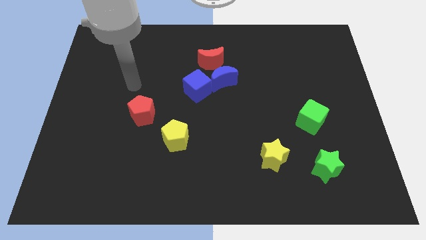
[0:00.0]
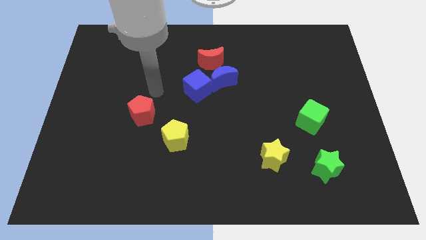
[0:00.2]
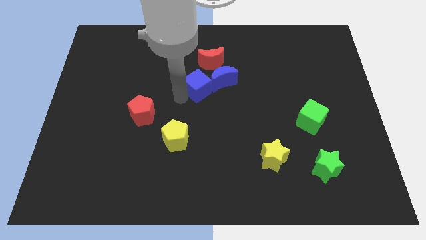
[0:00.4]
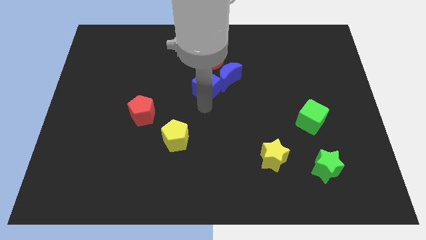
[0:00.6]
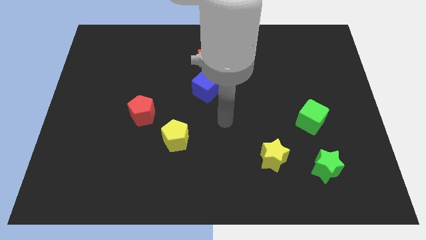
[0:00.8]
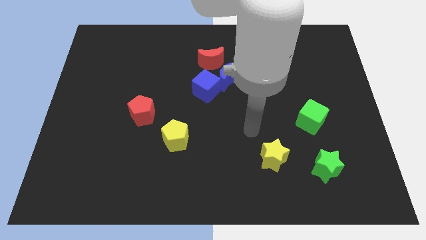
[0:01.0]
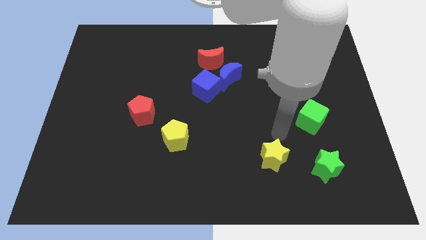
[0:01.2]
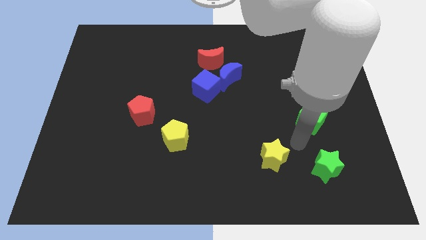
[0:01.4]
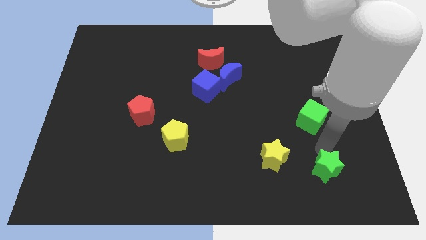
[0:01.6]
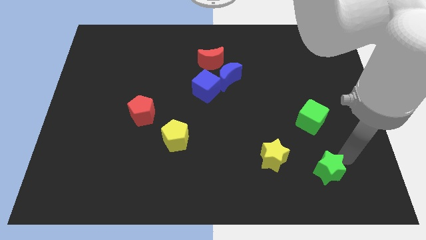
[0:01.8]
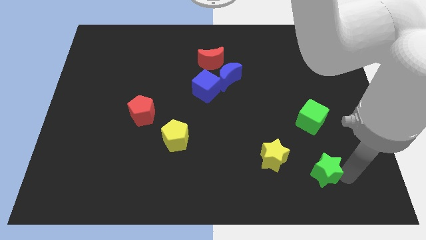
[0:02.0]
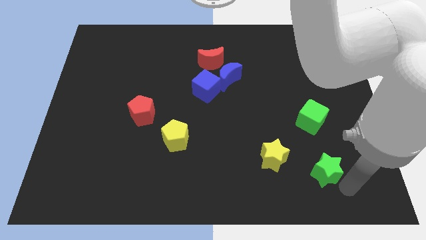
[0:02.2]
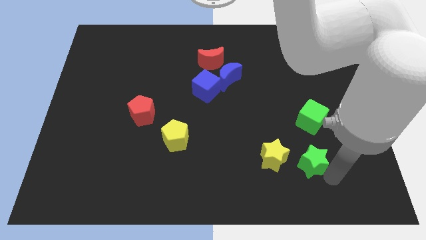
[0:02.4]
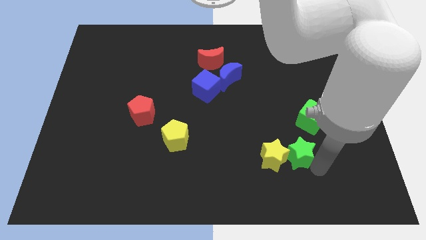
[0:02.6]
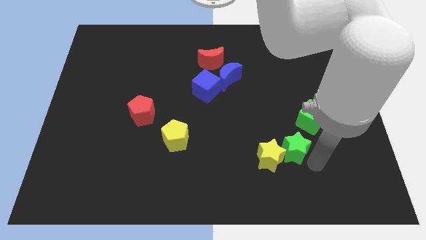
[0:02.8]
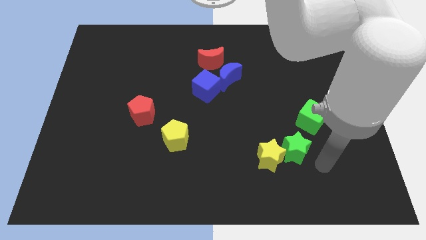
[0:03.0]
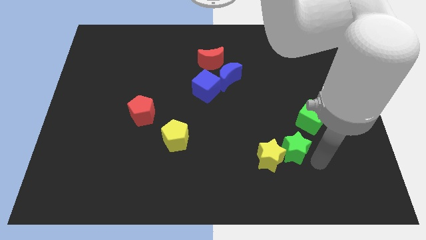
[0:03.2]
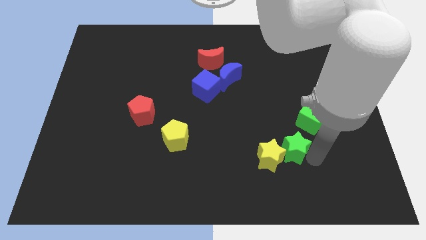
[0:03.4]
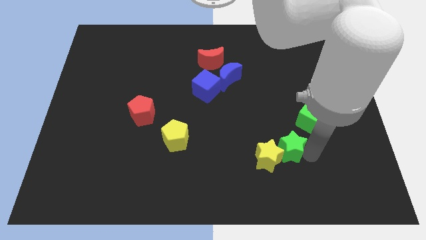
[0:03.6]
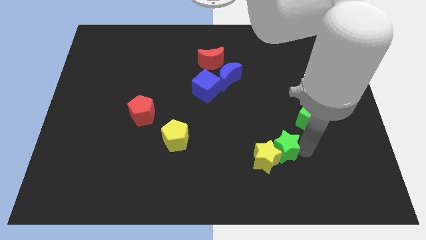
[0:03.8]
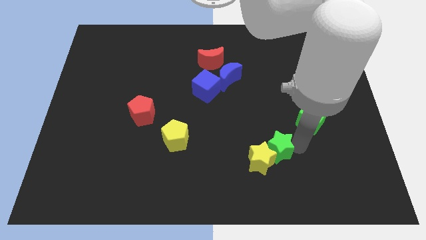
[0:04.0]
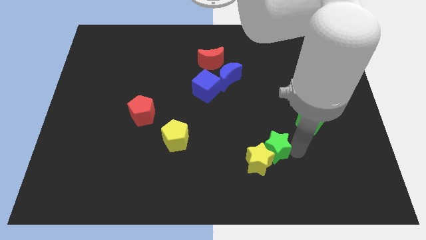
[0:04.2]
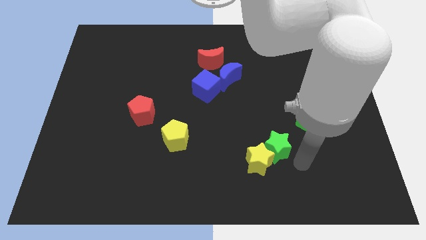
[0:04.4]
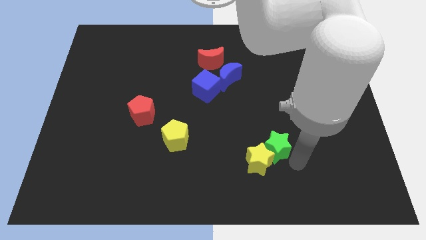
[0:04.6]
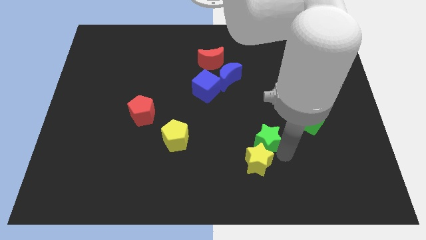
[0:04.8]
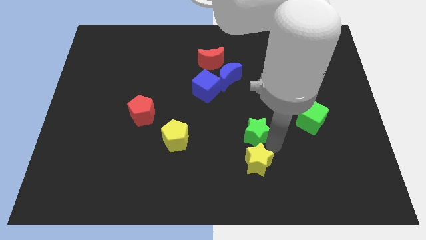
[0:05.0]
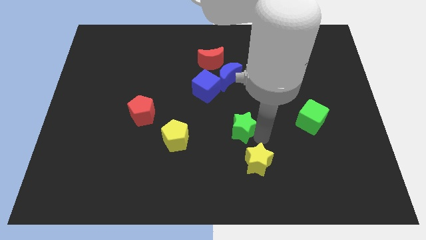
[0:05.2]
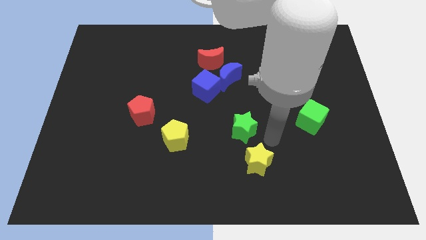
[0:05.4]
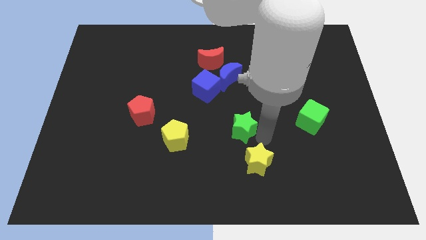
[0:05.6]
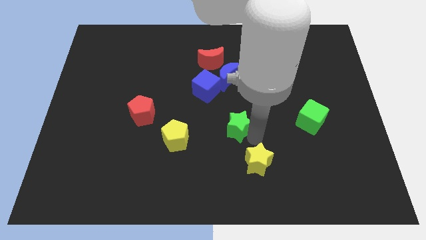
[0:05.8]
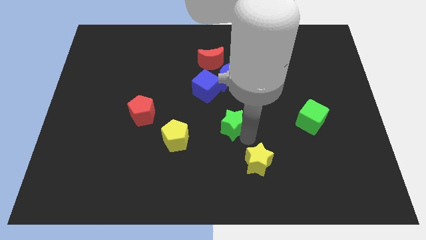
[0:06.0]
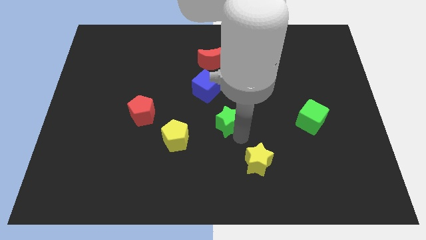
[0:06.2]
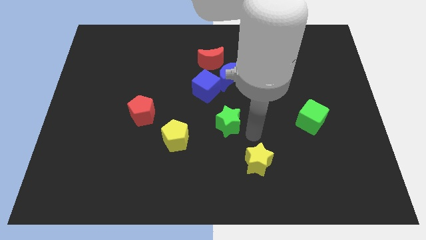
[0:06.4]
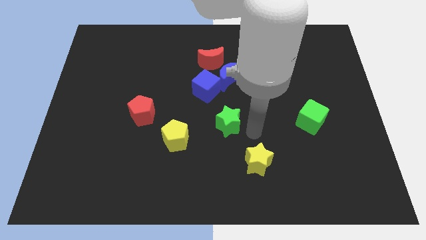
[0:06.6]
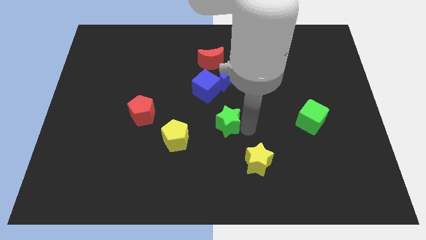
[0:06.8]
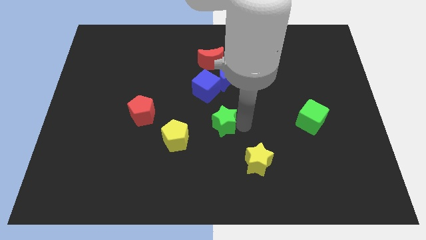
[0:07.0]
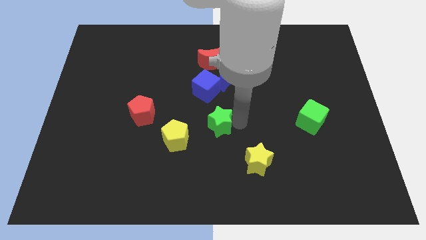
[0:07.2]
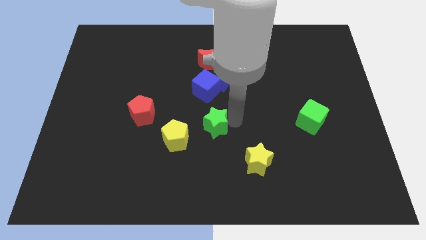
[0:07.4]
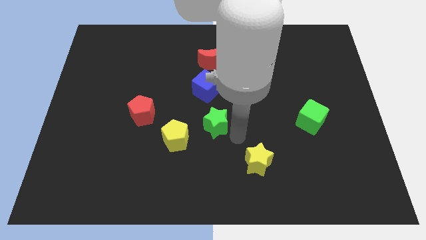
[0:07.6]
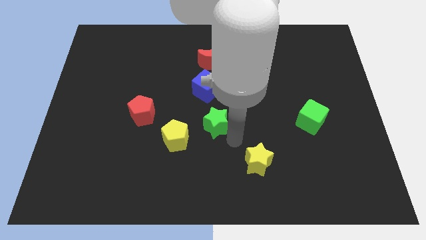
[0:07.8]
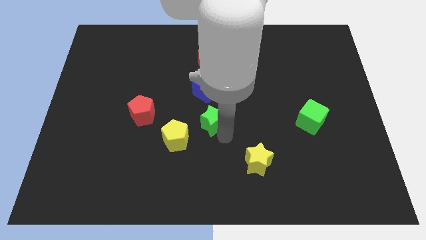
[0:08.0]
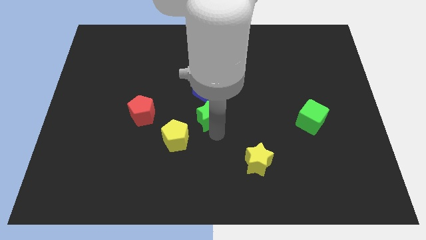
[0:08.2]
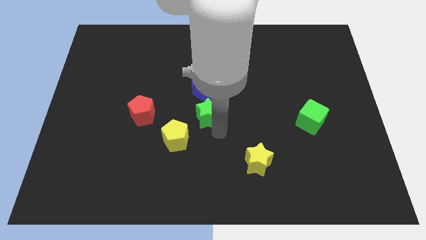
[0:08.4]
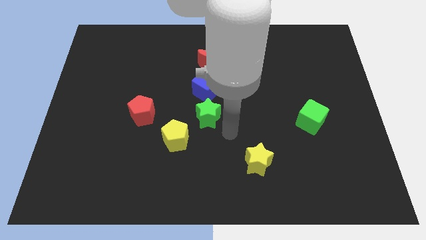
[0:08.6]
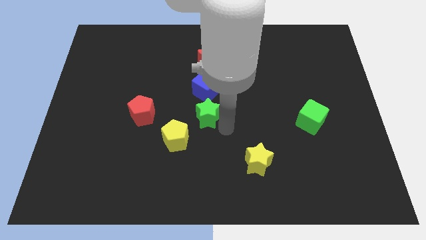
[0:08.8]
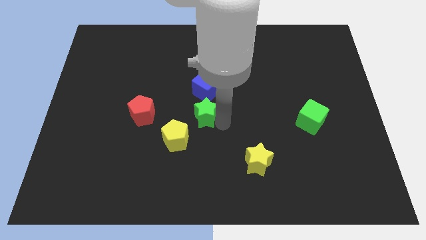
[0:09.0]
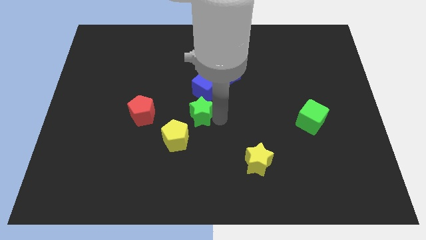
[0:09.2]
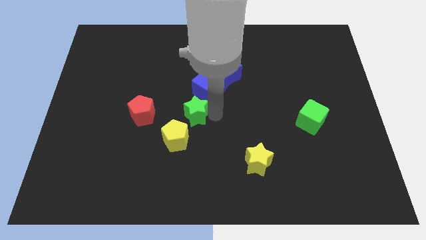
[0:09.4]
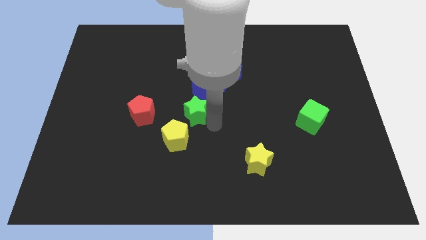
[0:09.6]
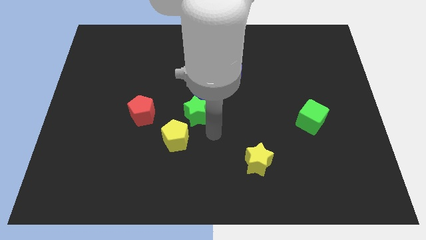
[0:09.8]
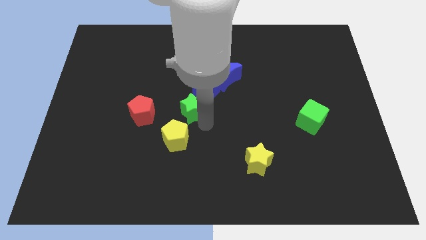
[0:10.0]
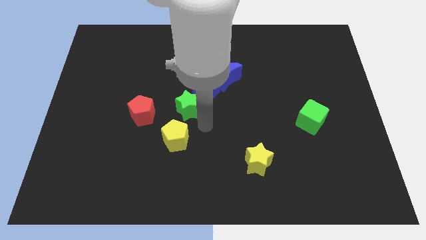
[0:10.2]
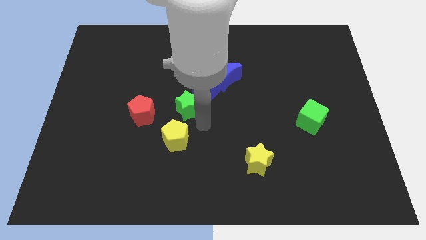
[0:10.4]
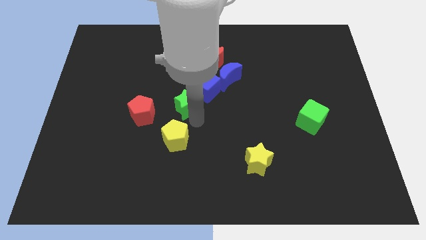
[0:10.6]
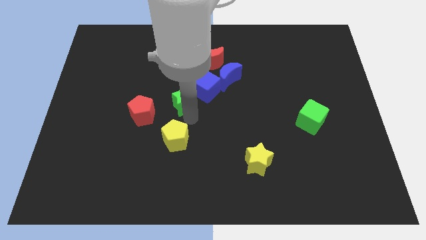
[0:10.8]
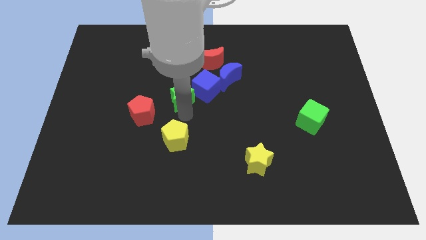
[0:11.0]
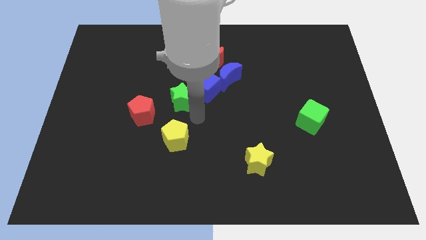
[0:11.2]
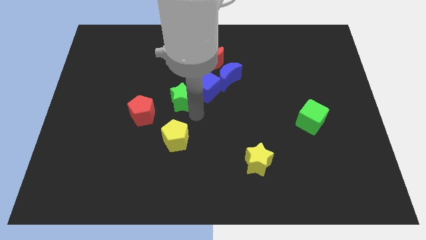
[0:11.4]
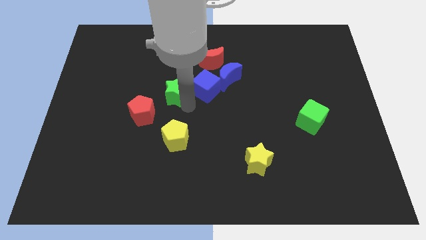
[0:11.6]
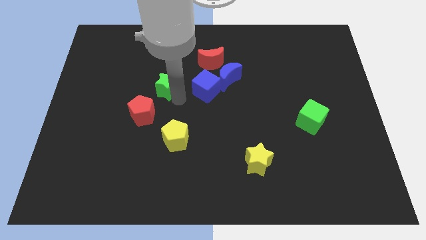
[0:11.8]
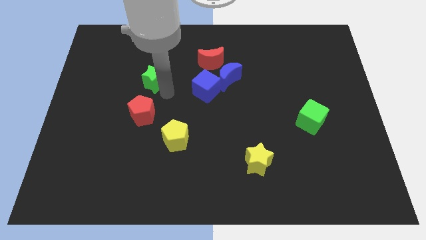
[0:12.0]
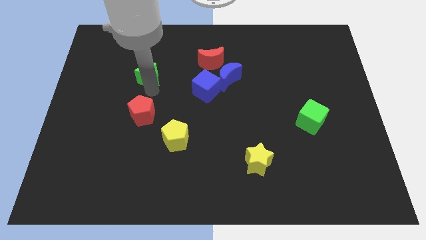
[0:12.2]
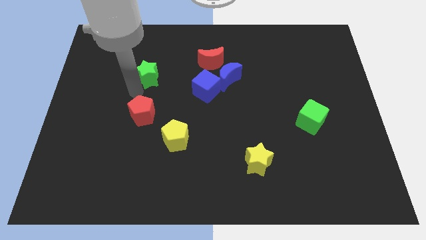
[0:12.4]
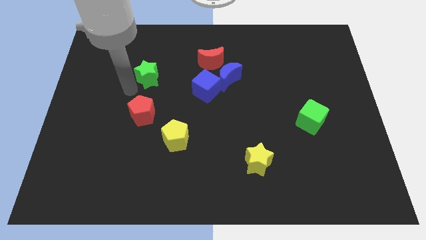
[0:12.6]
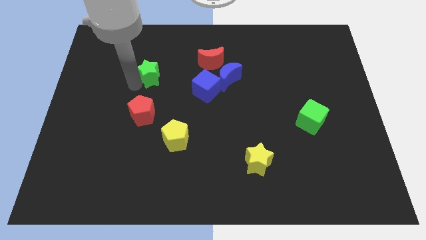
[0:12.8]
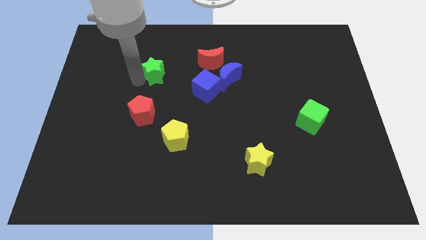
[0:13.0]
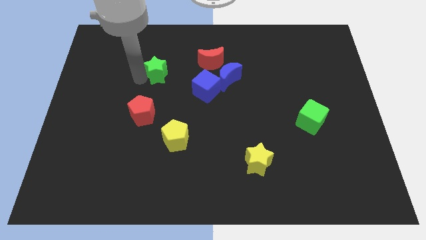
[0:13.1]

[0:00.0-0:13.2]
push the green star just left of the red moon

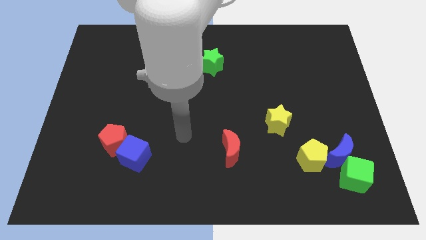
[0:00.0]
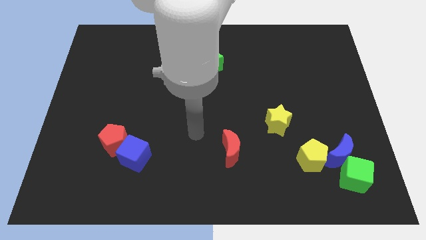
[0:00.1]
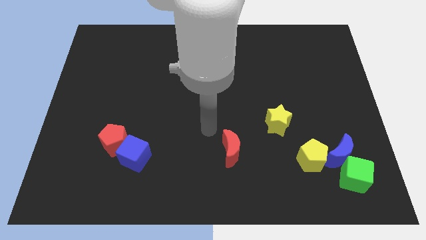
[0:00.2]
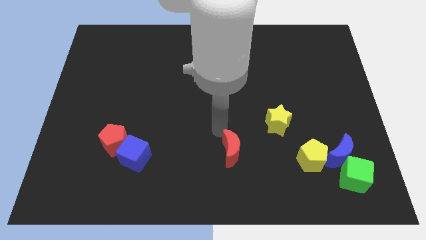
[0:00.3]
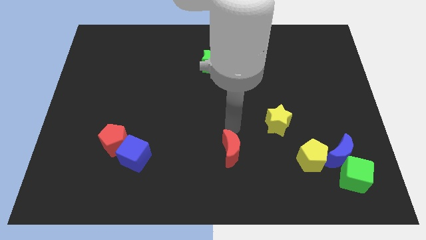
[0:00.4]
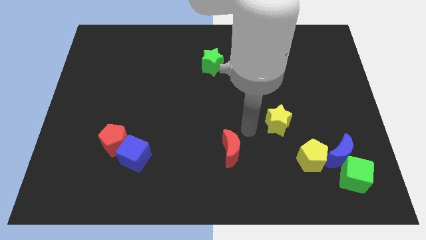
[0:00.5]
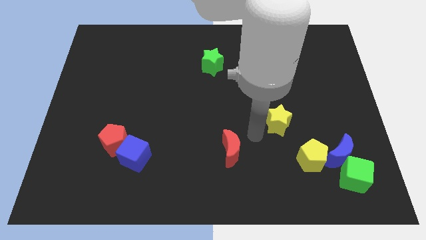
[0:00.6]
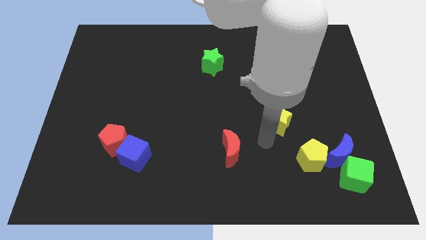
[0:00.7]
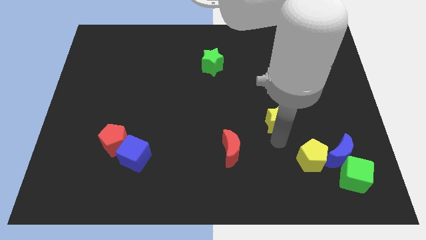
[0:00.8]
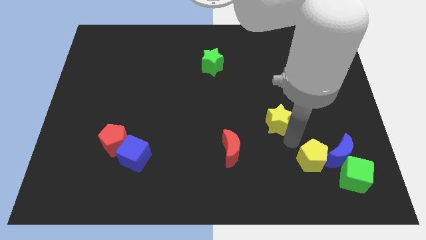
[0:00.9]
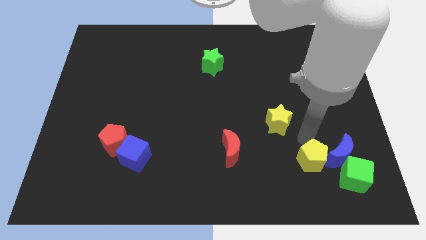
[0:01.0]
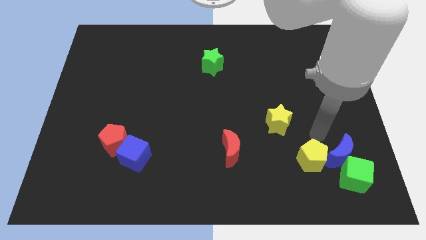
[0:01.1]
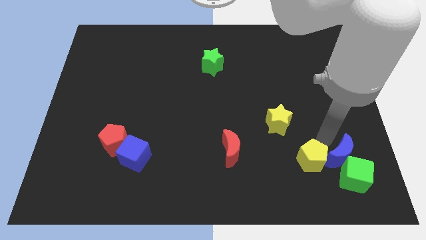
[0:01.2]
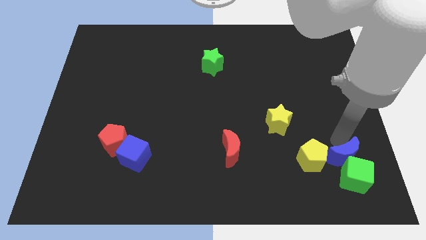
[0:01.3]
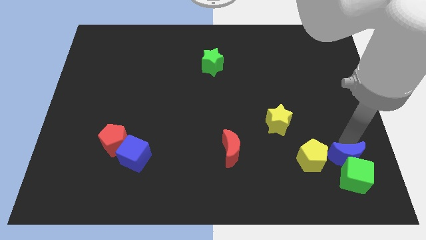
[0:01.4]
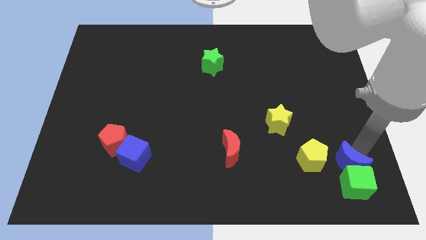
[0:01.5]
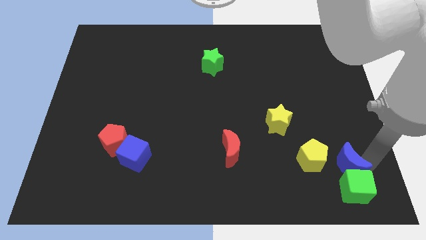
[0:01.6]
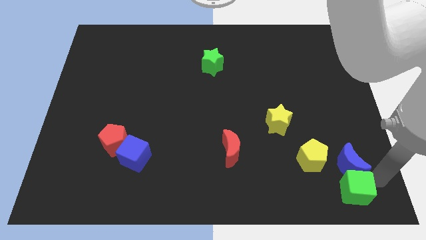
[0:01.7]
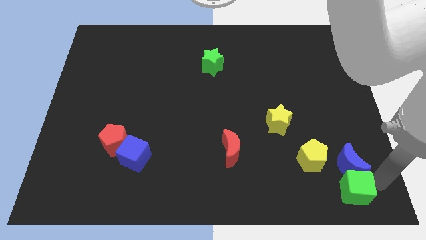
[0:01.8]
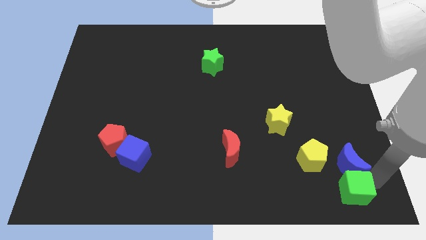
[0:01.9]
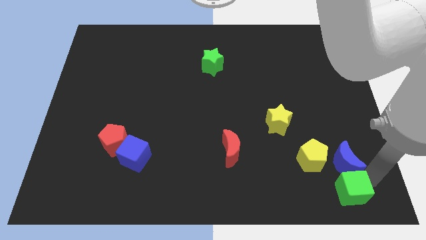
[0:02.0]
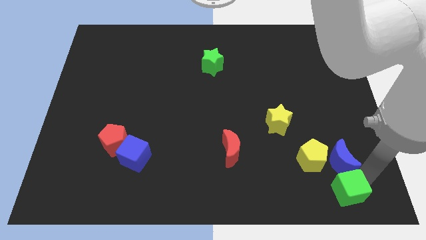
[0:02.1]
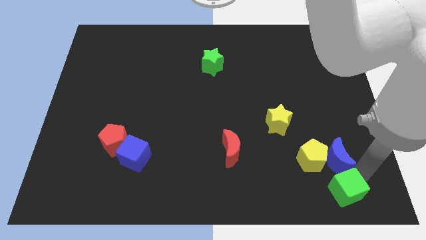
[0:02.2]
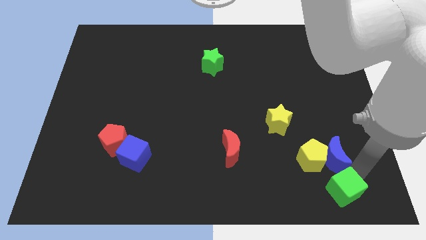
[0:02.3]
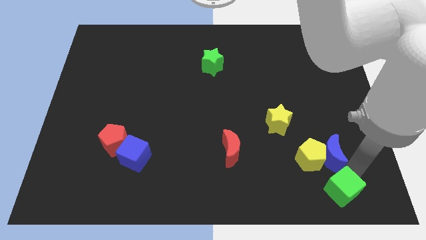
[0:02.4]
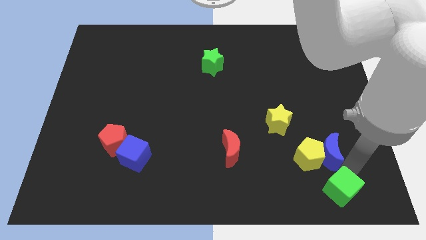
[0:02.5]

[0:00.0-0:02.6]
slide the blue moon to the bottom right side of the yellow star
